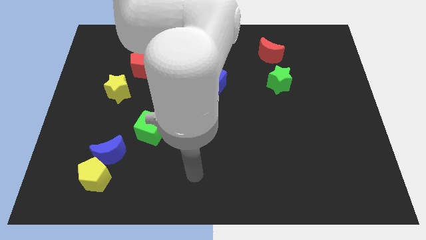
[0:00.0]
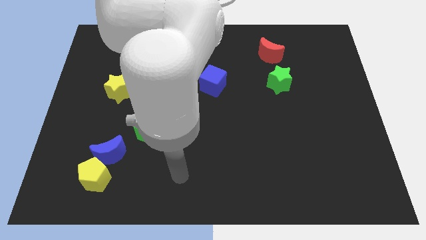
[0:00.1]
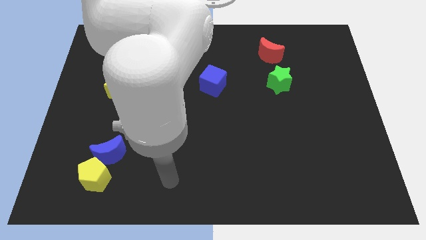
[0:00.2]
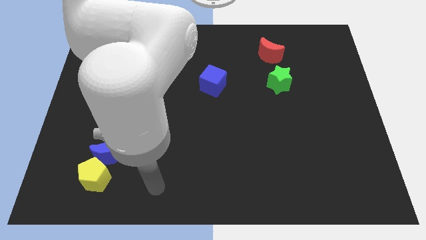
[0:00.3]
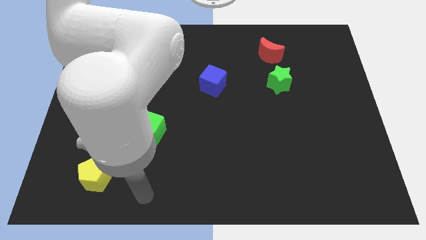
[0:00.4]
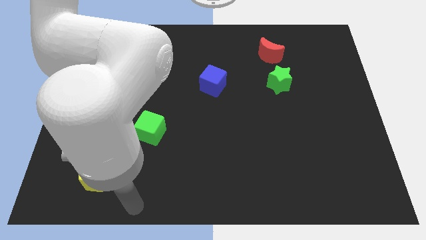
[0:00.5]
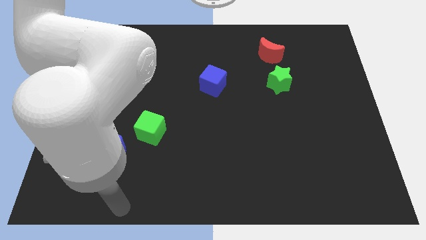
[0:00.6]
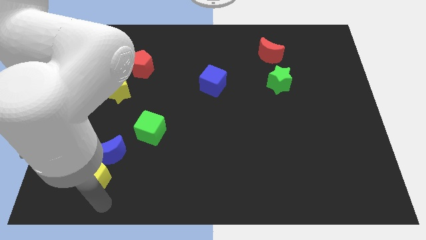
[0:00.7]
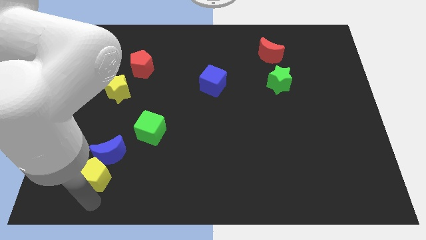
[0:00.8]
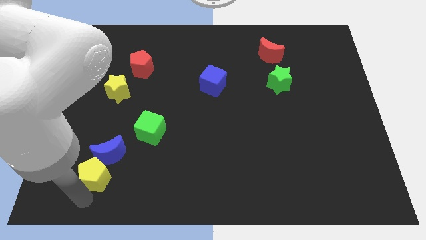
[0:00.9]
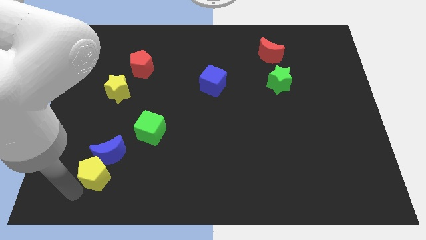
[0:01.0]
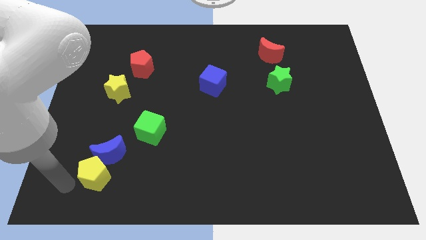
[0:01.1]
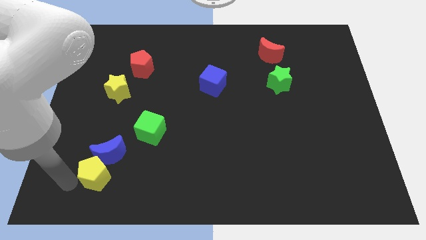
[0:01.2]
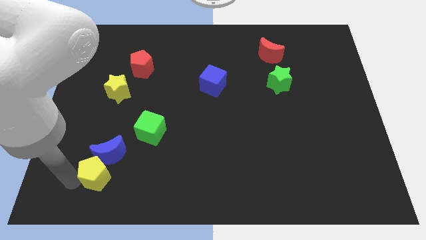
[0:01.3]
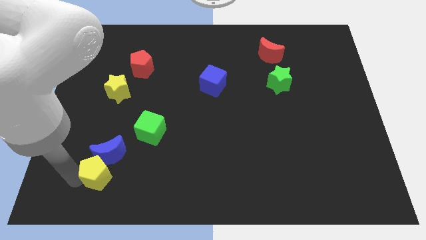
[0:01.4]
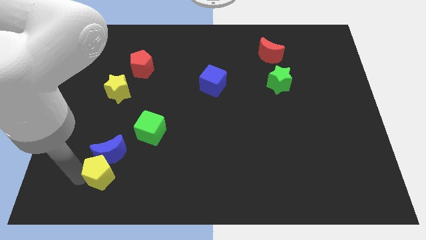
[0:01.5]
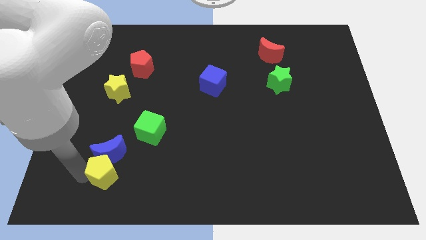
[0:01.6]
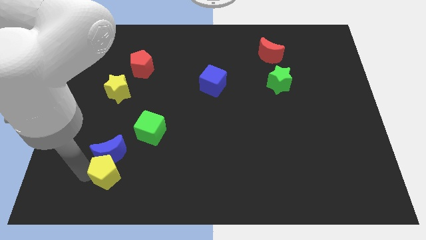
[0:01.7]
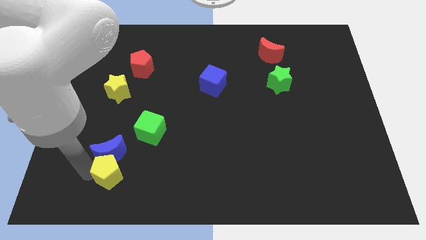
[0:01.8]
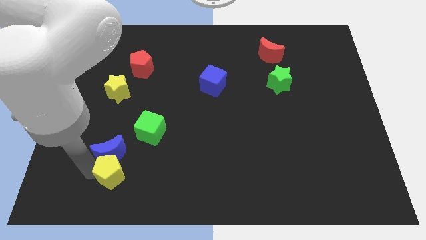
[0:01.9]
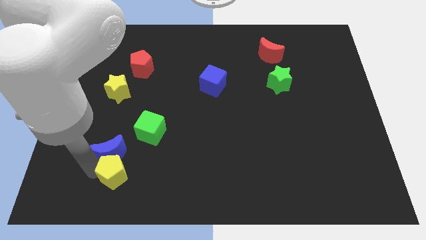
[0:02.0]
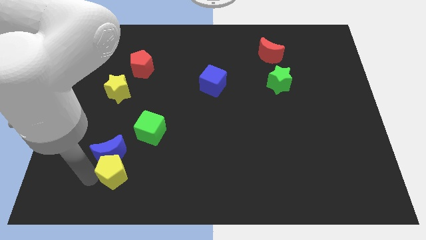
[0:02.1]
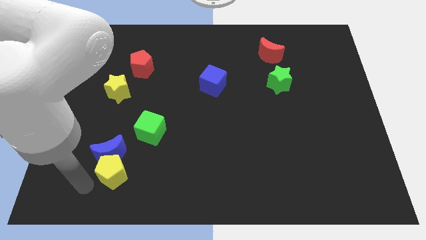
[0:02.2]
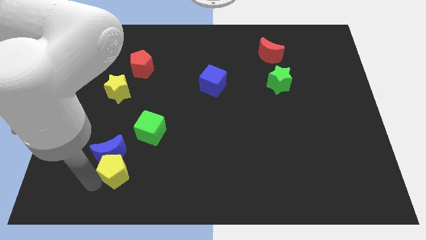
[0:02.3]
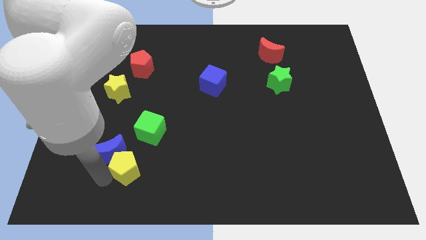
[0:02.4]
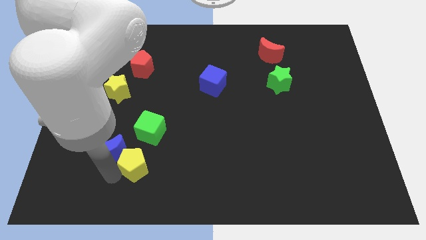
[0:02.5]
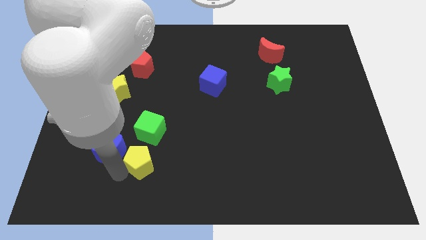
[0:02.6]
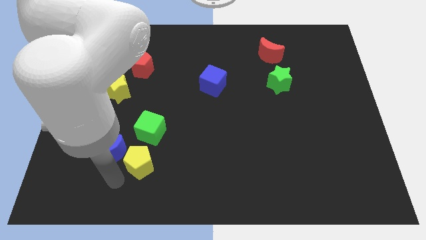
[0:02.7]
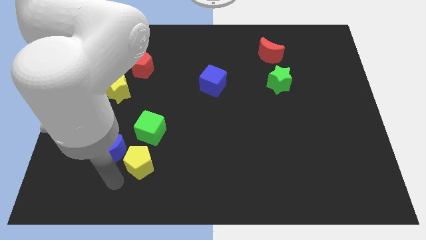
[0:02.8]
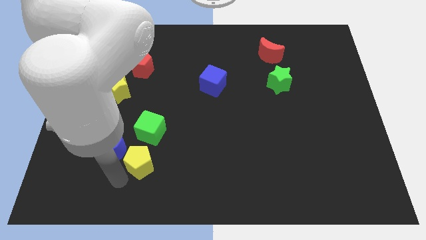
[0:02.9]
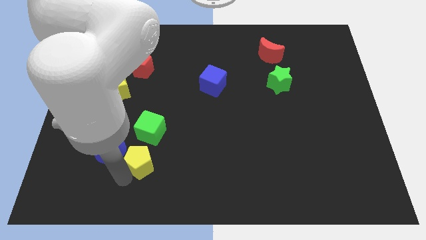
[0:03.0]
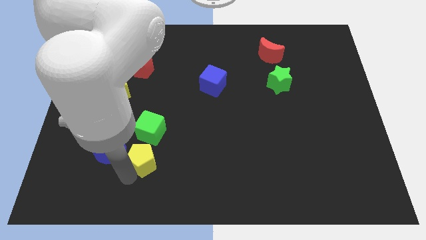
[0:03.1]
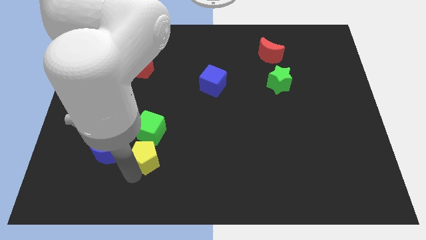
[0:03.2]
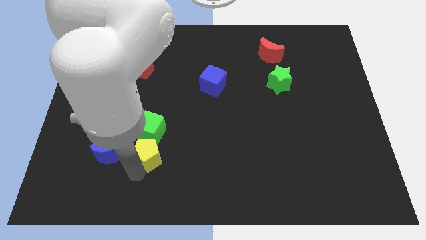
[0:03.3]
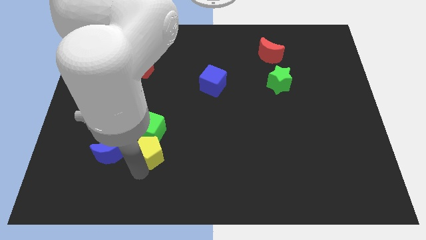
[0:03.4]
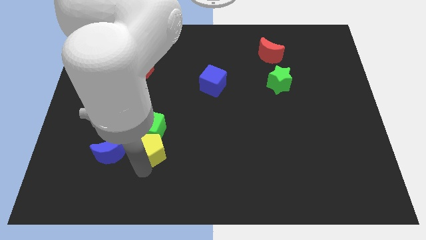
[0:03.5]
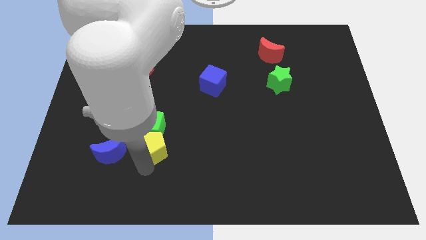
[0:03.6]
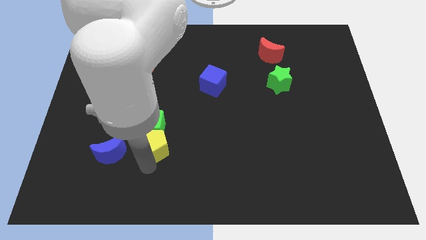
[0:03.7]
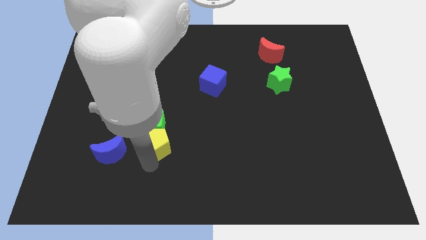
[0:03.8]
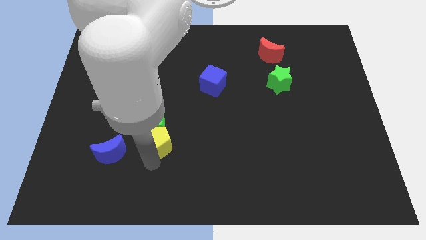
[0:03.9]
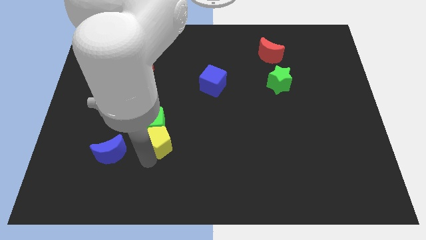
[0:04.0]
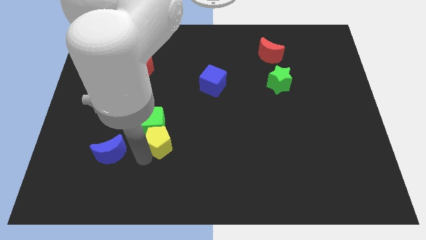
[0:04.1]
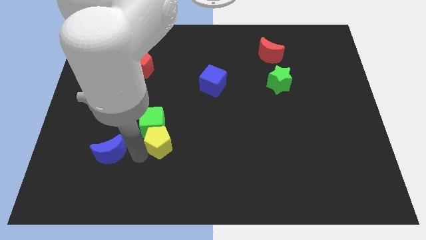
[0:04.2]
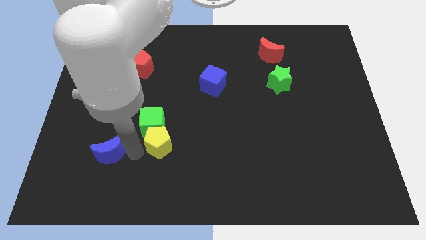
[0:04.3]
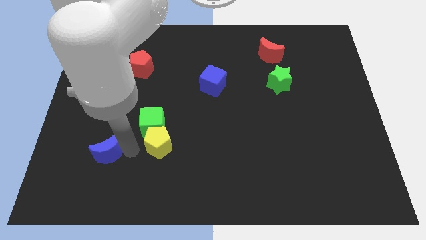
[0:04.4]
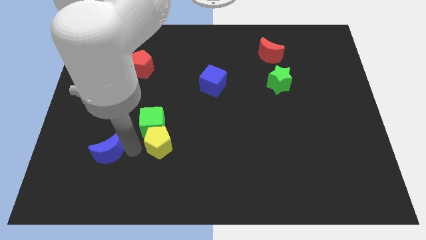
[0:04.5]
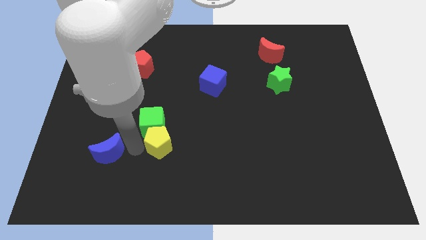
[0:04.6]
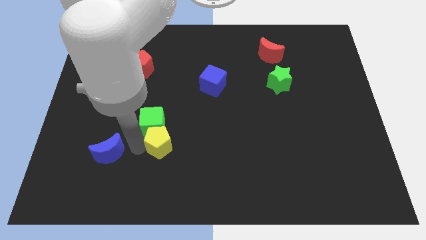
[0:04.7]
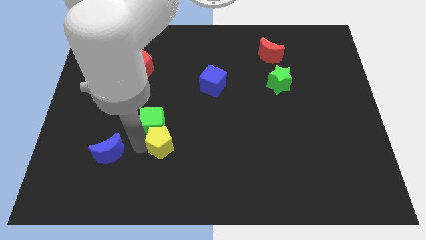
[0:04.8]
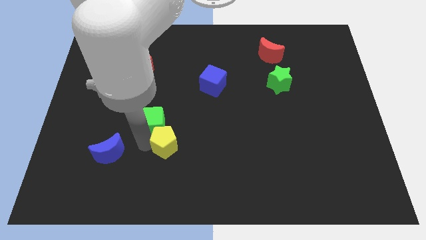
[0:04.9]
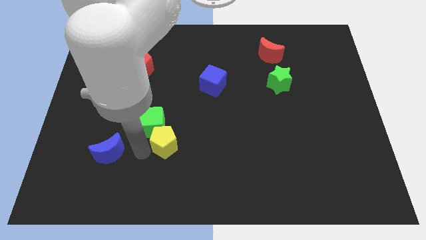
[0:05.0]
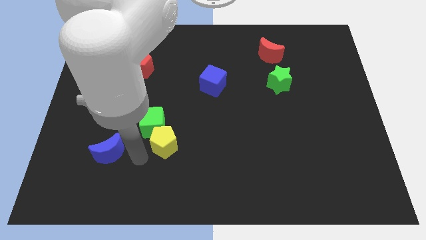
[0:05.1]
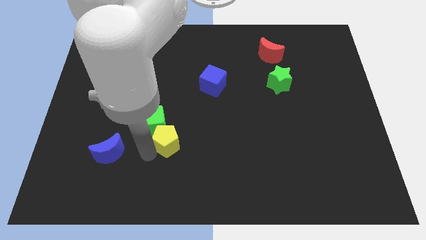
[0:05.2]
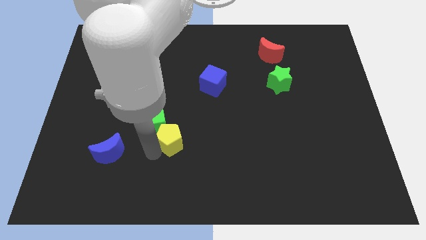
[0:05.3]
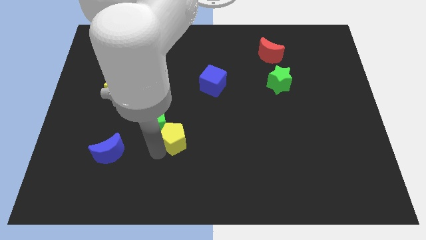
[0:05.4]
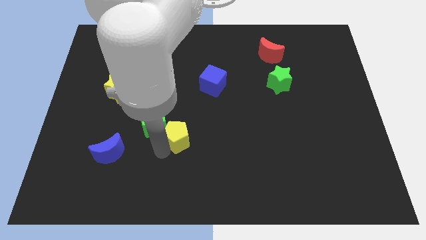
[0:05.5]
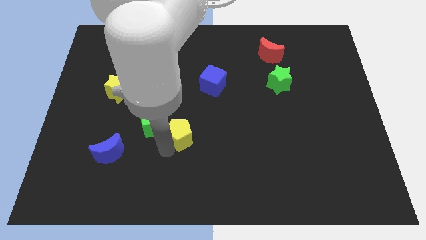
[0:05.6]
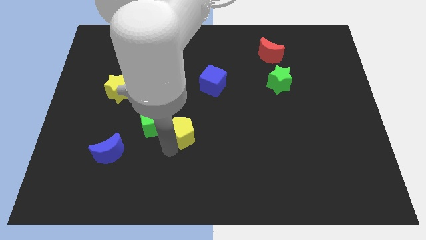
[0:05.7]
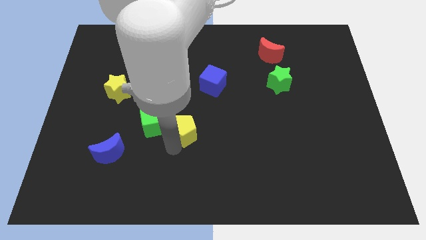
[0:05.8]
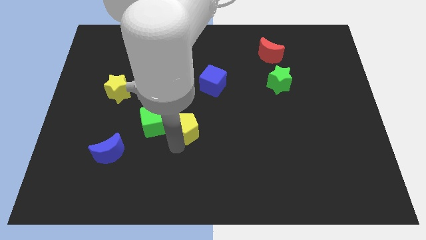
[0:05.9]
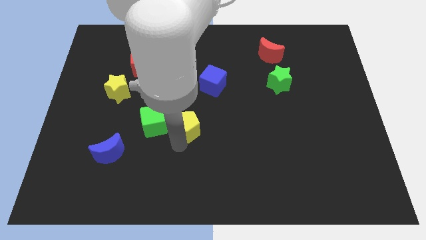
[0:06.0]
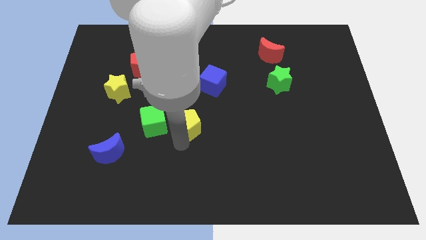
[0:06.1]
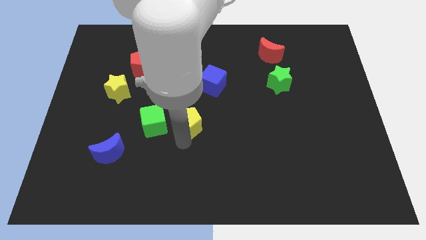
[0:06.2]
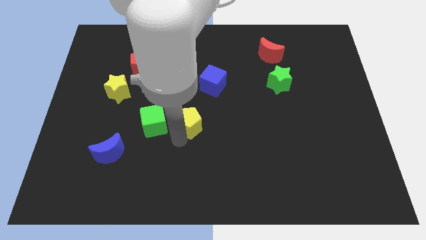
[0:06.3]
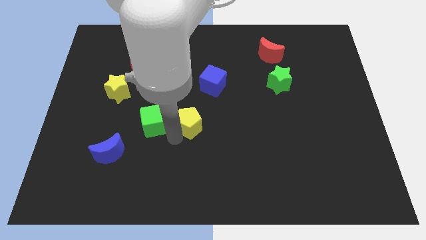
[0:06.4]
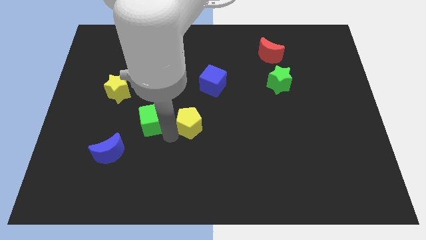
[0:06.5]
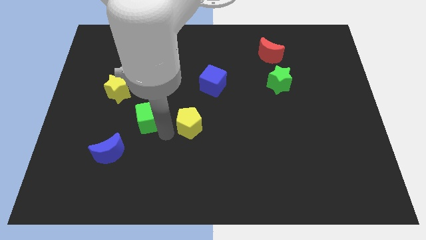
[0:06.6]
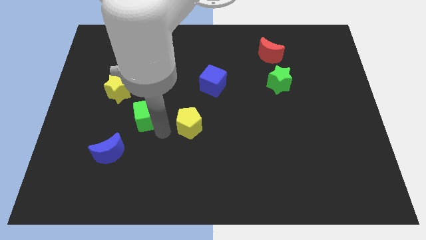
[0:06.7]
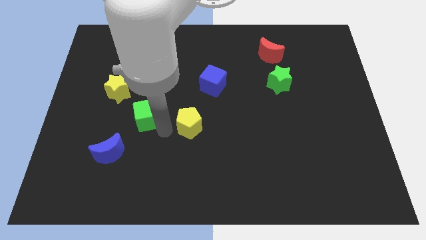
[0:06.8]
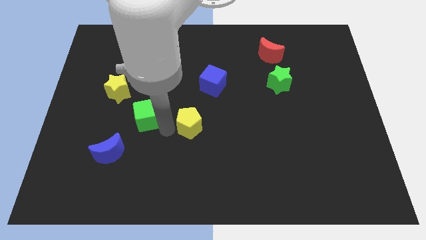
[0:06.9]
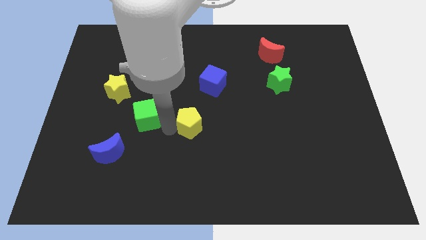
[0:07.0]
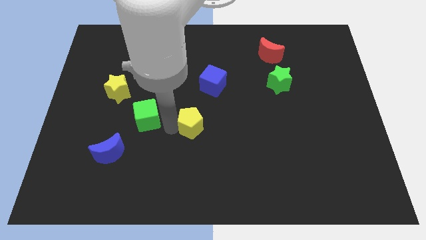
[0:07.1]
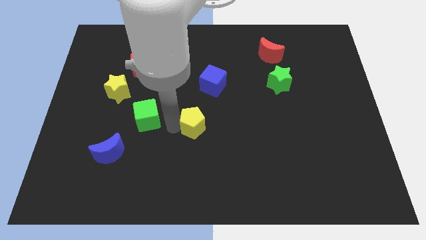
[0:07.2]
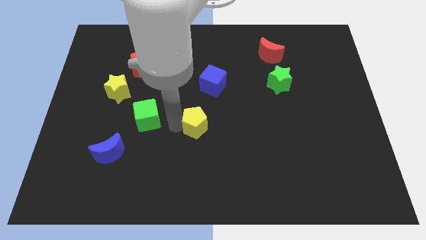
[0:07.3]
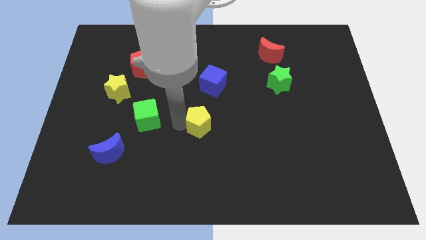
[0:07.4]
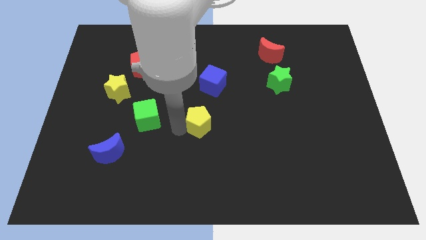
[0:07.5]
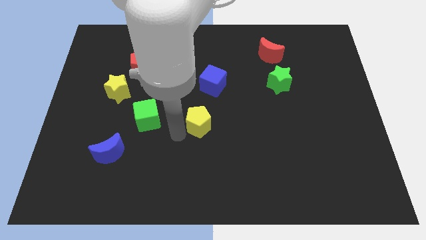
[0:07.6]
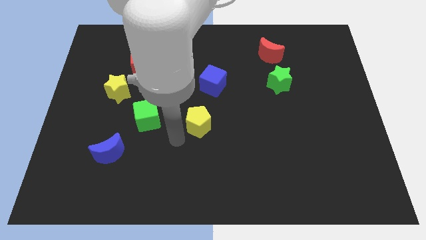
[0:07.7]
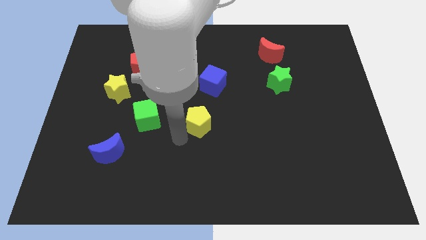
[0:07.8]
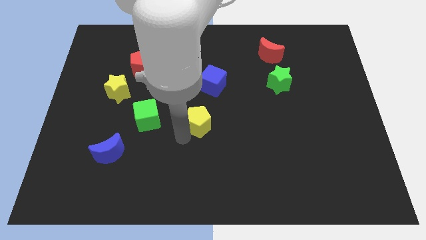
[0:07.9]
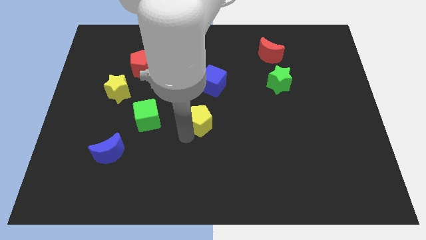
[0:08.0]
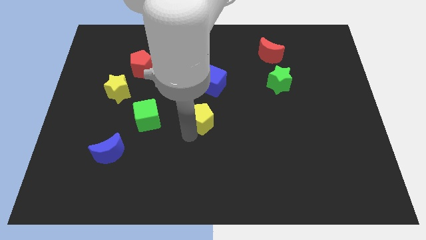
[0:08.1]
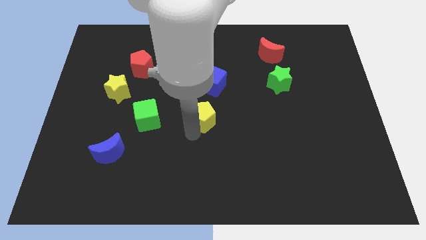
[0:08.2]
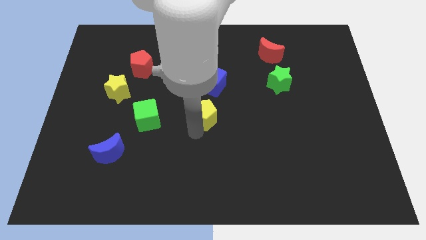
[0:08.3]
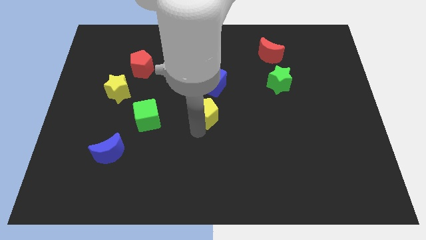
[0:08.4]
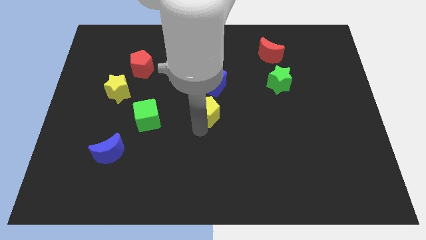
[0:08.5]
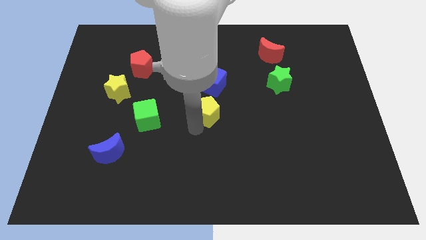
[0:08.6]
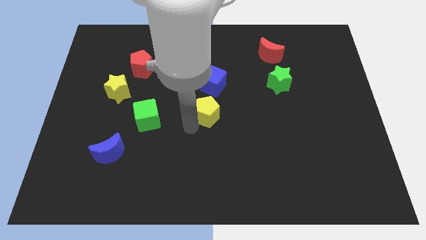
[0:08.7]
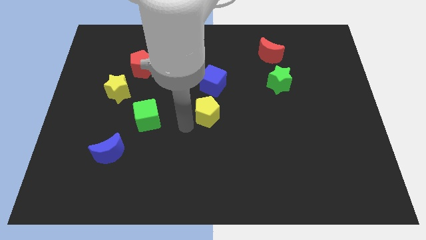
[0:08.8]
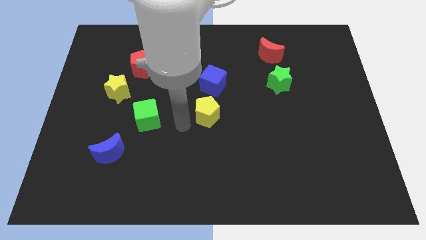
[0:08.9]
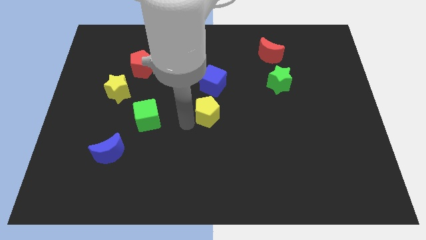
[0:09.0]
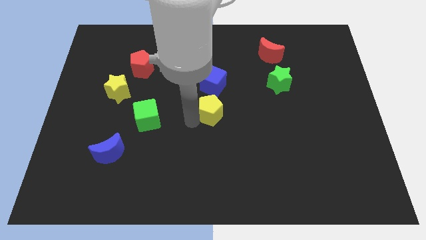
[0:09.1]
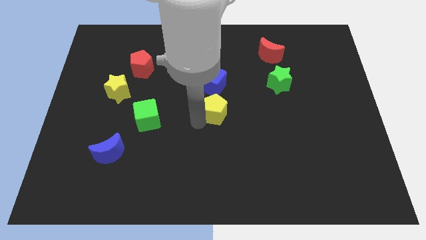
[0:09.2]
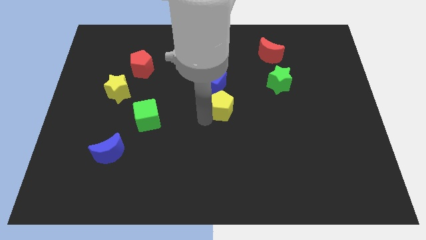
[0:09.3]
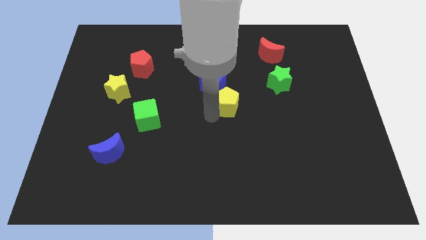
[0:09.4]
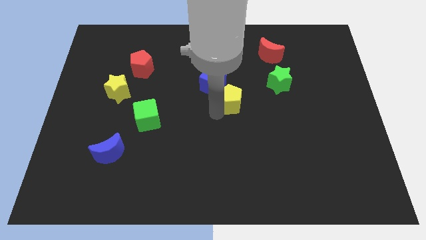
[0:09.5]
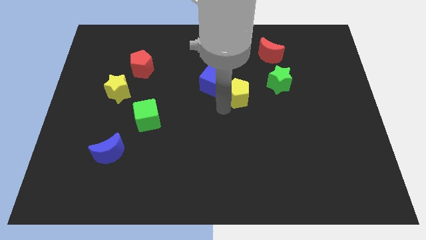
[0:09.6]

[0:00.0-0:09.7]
put the yellow pentagon to the right side of the blue cube
